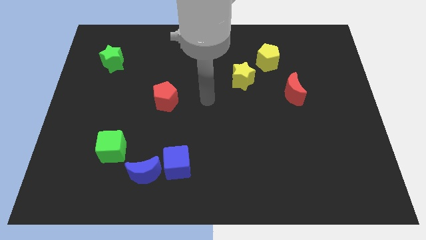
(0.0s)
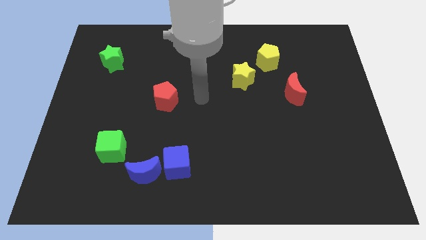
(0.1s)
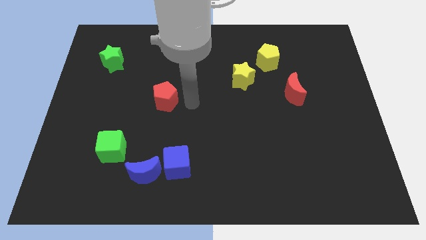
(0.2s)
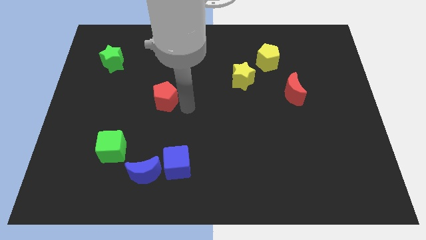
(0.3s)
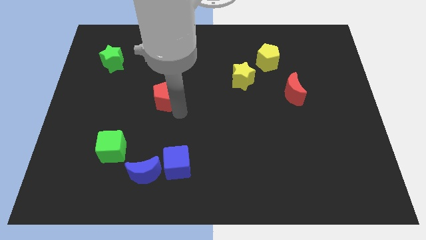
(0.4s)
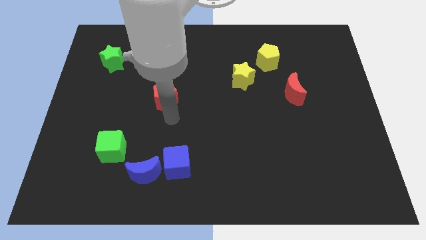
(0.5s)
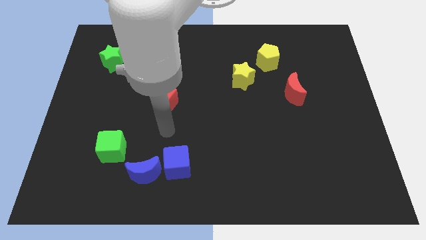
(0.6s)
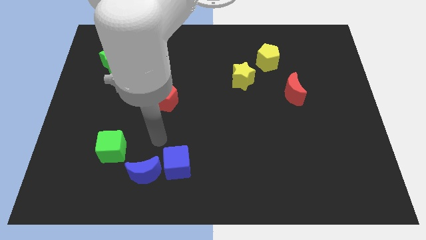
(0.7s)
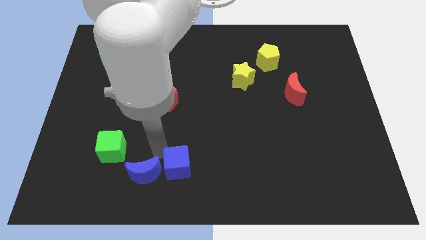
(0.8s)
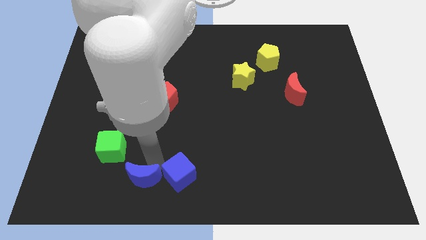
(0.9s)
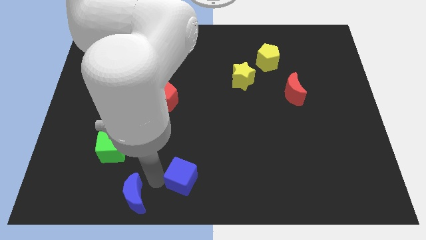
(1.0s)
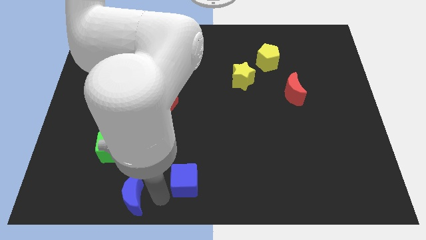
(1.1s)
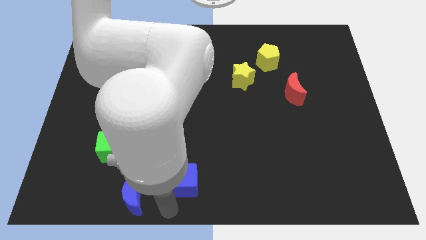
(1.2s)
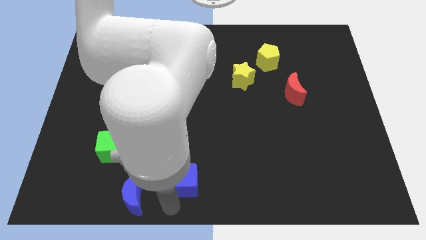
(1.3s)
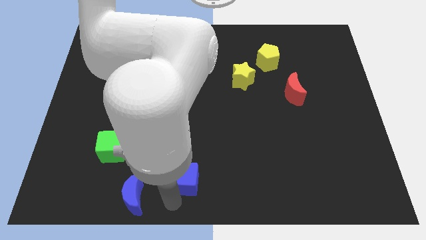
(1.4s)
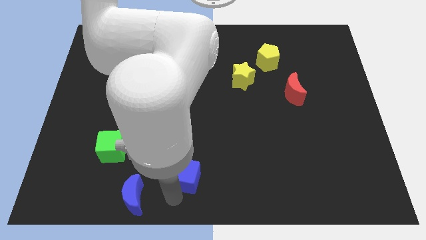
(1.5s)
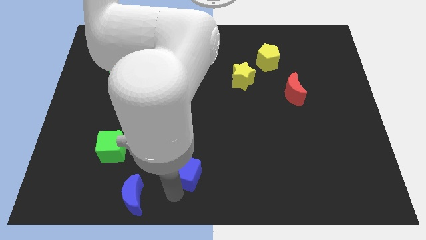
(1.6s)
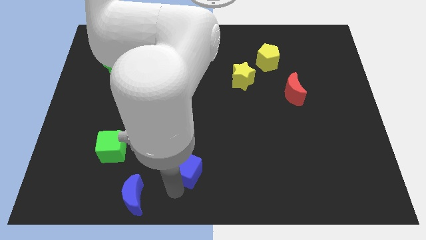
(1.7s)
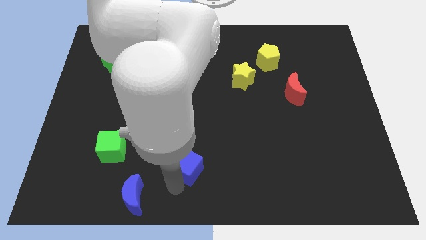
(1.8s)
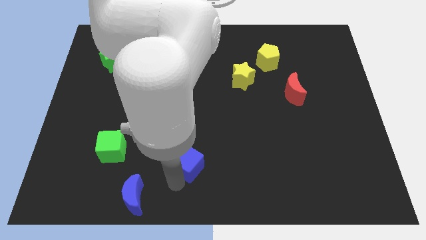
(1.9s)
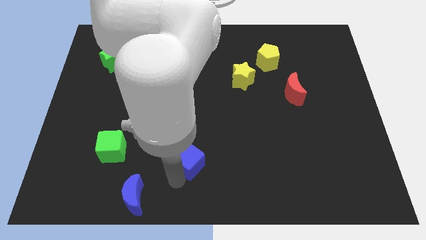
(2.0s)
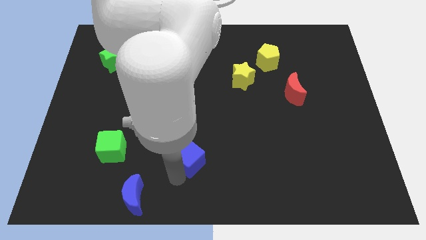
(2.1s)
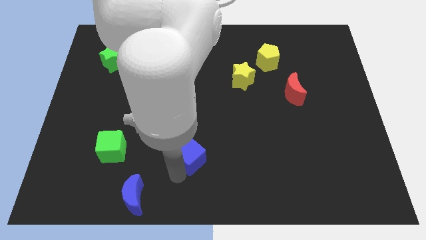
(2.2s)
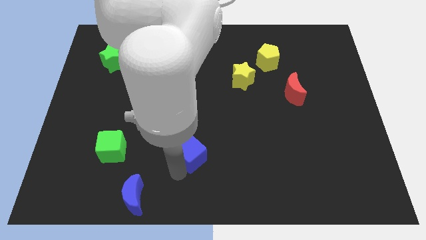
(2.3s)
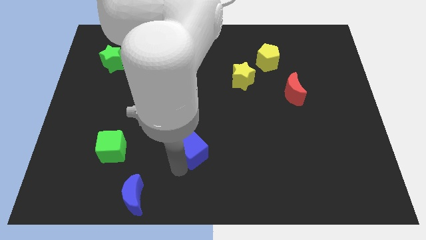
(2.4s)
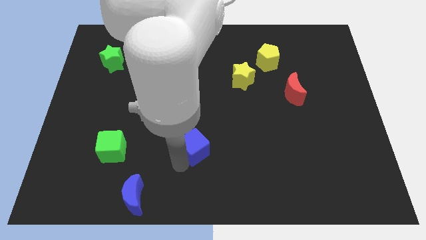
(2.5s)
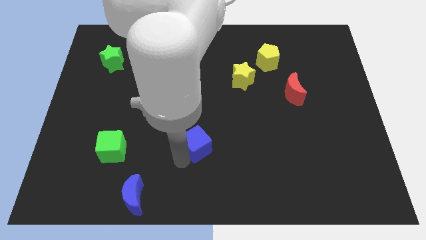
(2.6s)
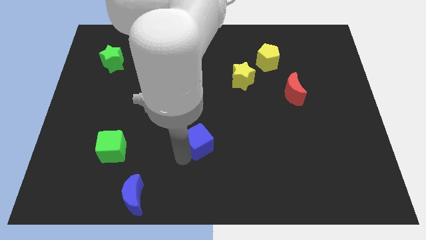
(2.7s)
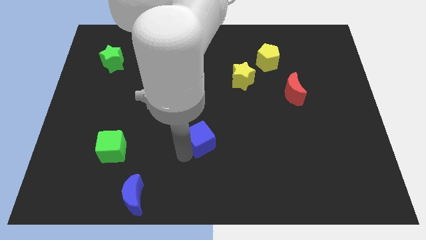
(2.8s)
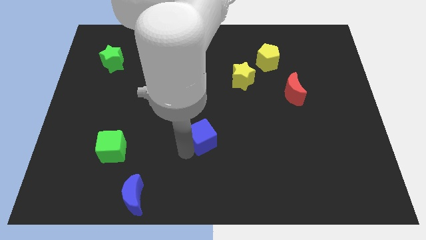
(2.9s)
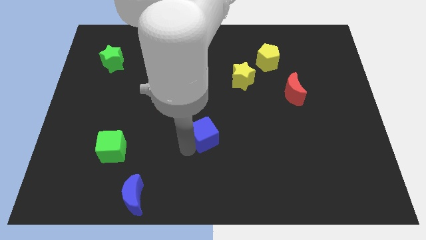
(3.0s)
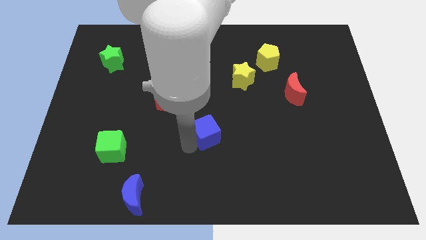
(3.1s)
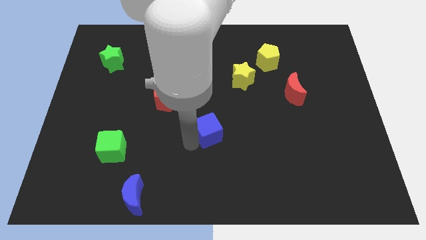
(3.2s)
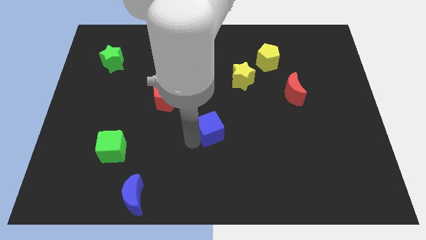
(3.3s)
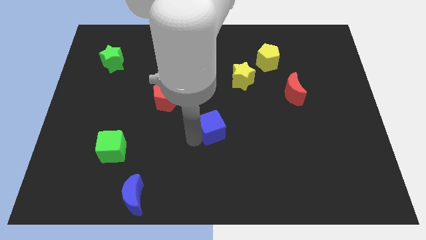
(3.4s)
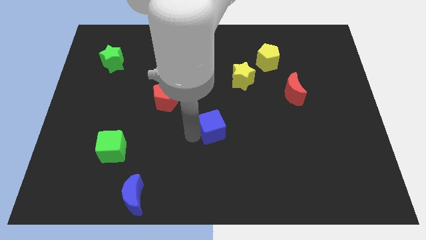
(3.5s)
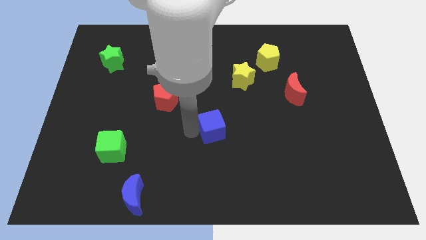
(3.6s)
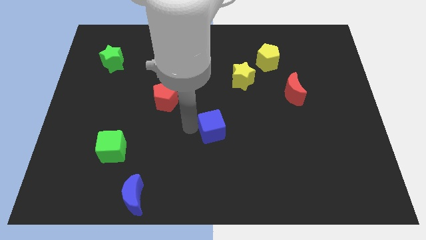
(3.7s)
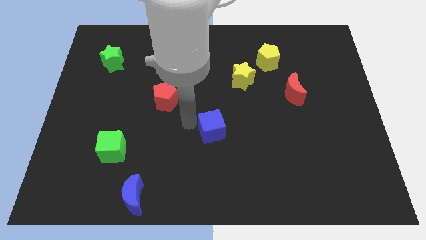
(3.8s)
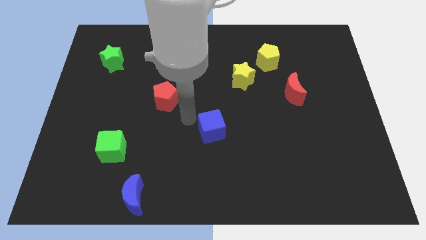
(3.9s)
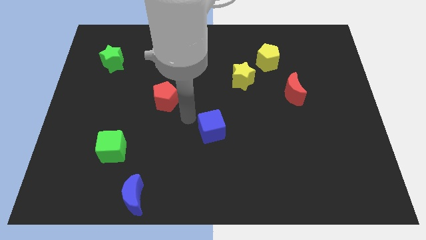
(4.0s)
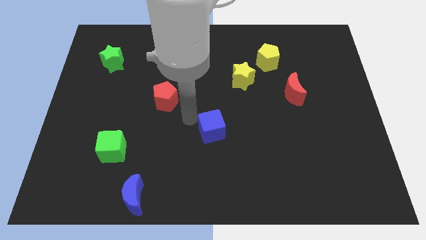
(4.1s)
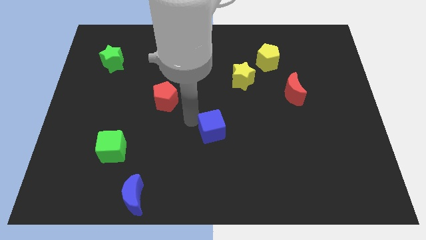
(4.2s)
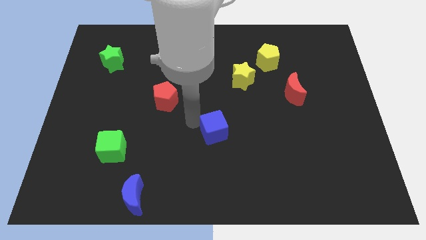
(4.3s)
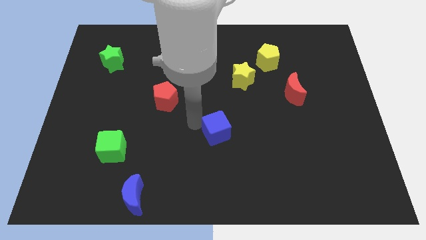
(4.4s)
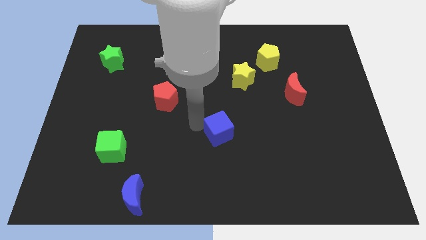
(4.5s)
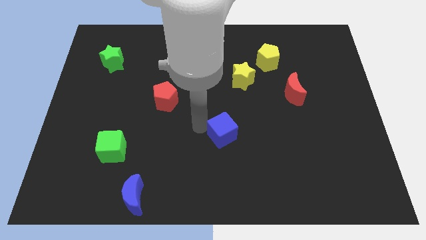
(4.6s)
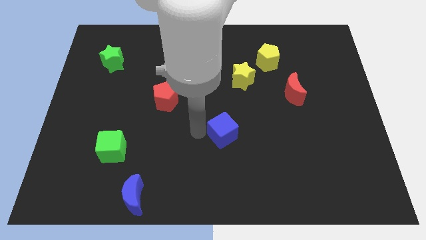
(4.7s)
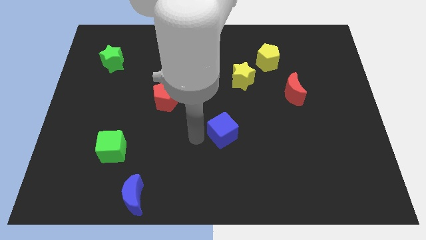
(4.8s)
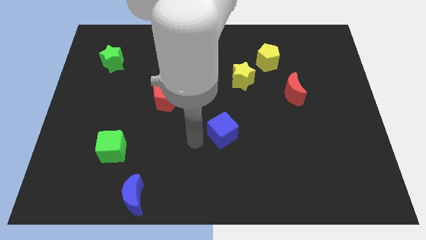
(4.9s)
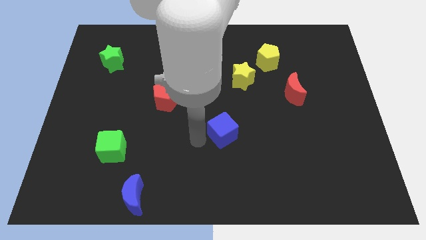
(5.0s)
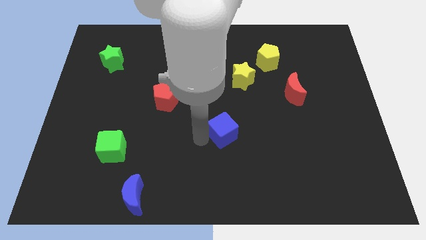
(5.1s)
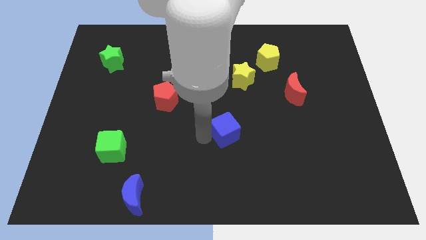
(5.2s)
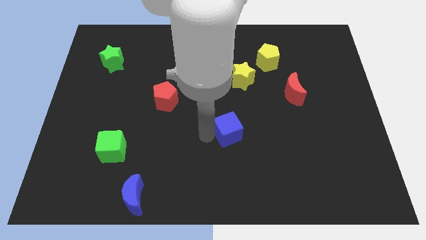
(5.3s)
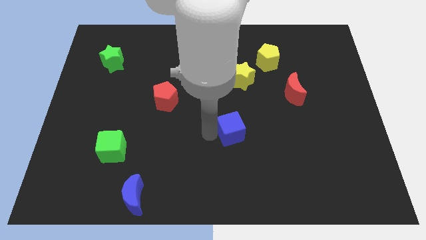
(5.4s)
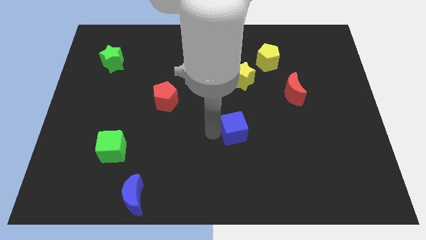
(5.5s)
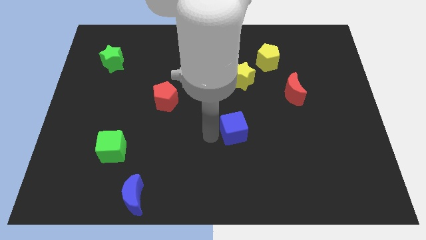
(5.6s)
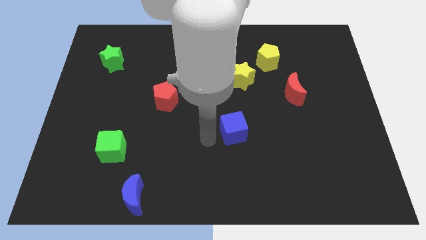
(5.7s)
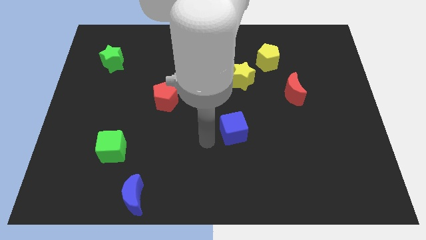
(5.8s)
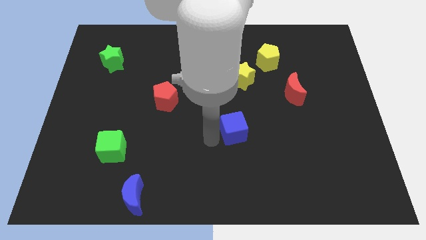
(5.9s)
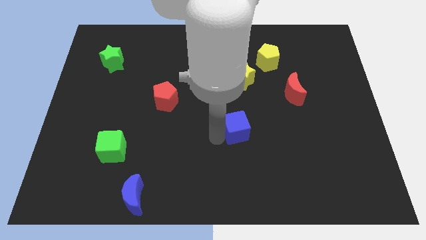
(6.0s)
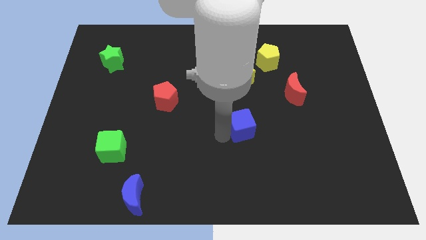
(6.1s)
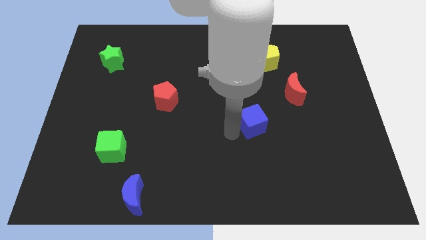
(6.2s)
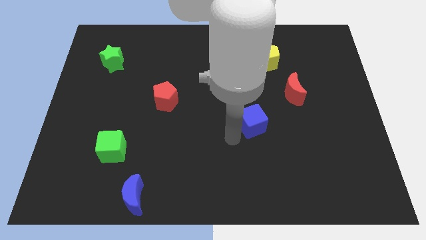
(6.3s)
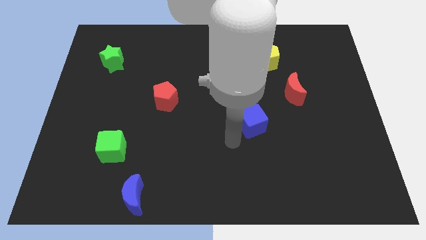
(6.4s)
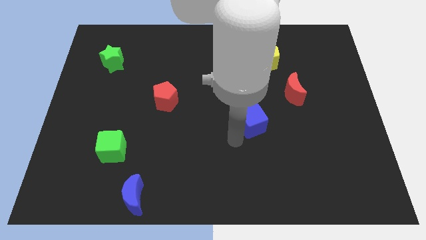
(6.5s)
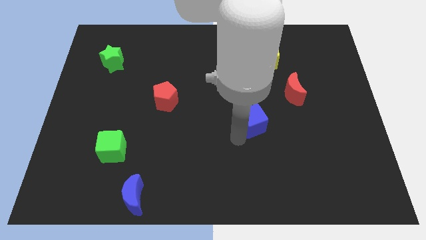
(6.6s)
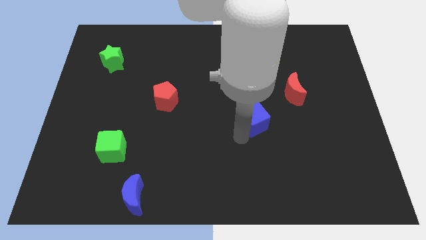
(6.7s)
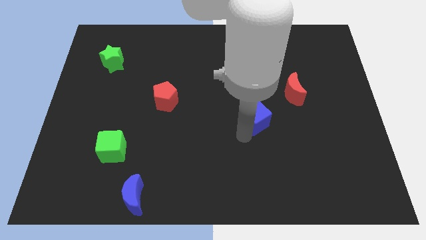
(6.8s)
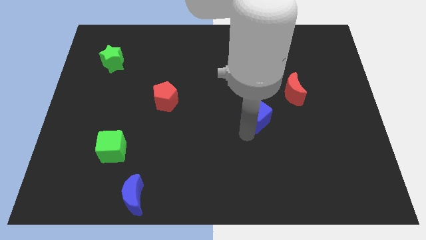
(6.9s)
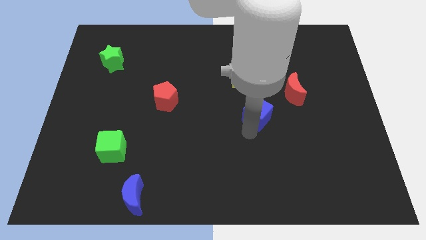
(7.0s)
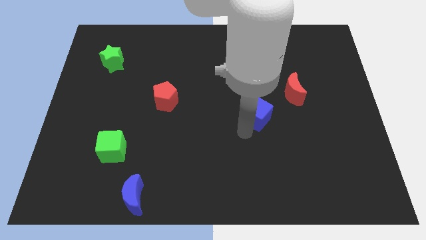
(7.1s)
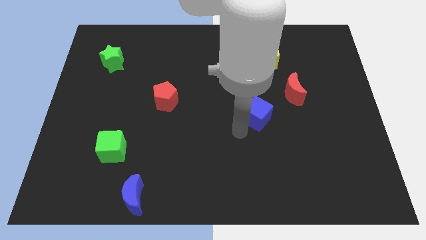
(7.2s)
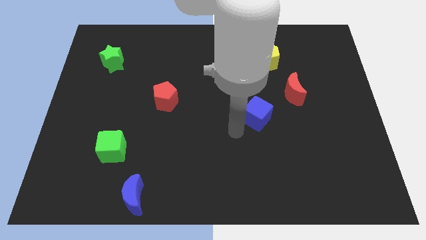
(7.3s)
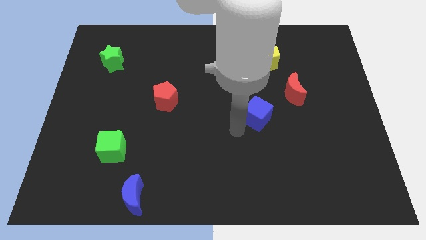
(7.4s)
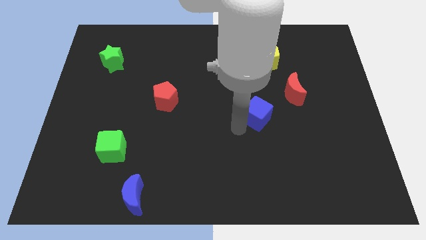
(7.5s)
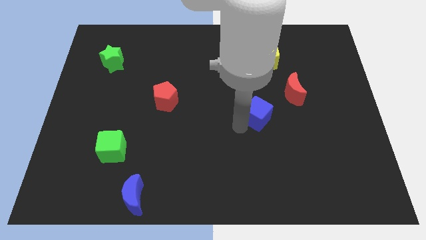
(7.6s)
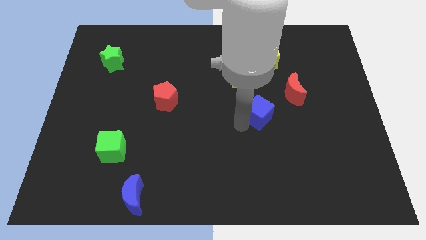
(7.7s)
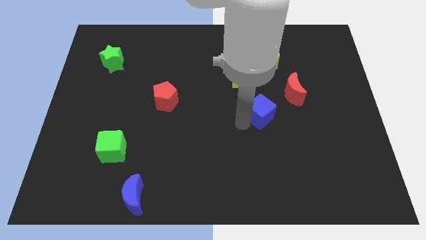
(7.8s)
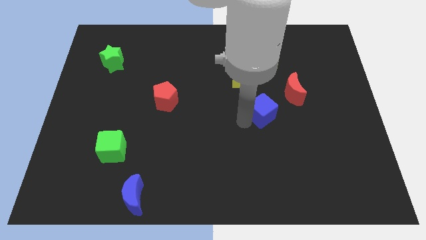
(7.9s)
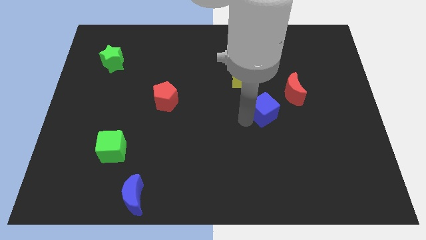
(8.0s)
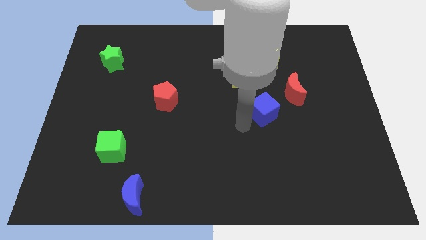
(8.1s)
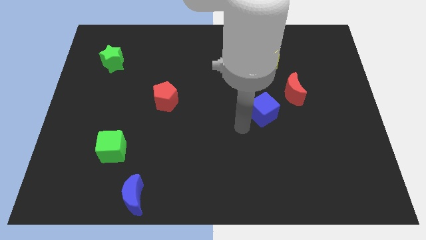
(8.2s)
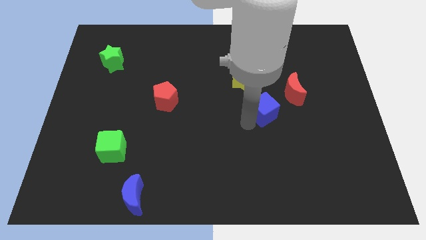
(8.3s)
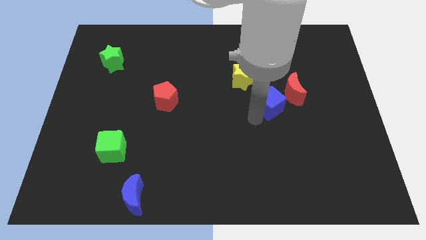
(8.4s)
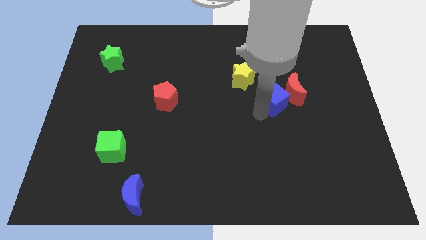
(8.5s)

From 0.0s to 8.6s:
push the blue cube next to the red moon
